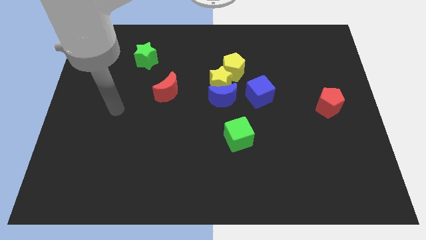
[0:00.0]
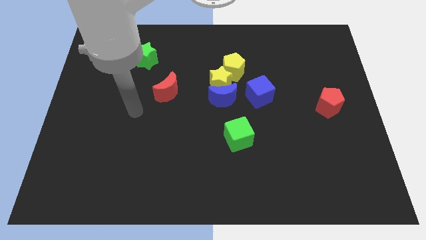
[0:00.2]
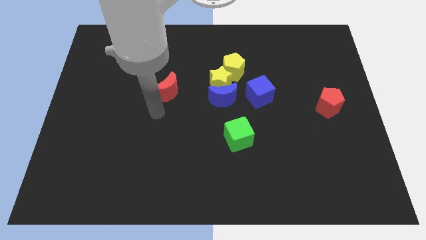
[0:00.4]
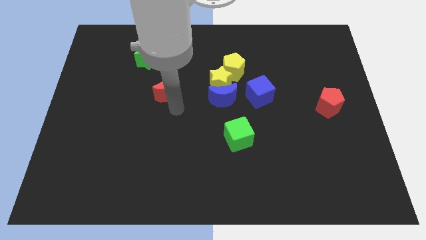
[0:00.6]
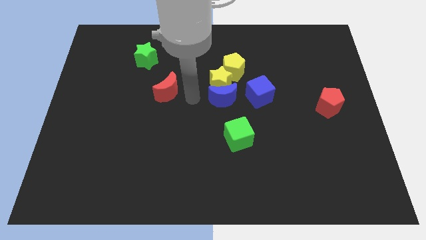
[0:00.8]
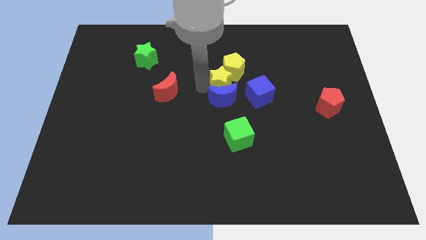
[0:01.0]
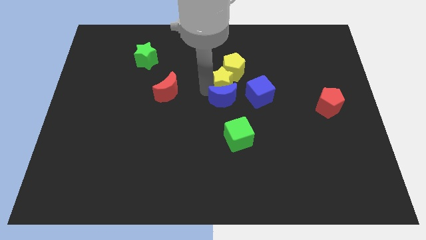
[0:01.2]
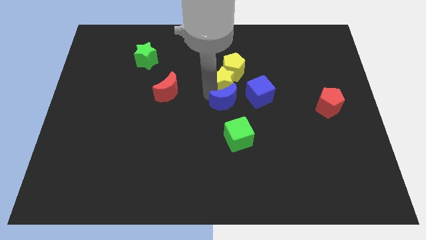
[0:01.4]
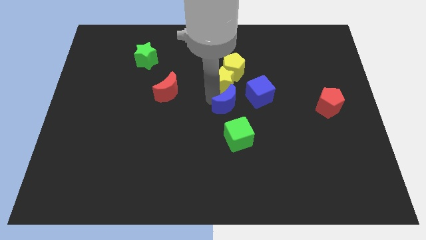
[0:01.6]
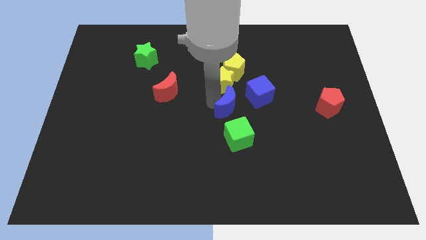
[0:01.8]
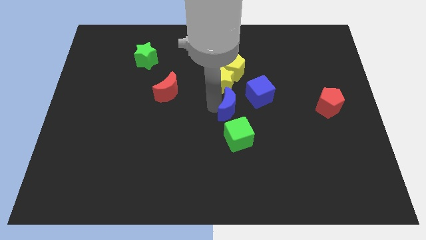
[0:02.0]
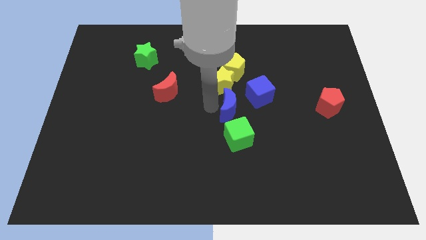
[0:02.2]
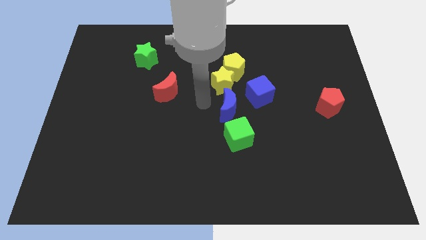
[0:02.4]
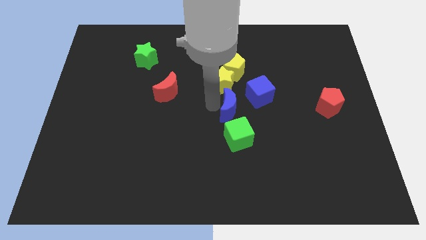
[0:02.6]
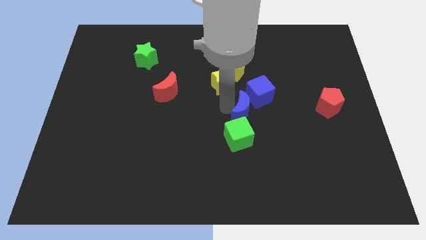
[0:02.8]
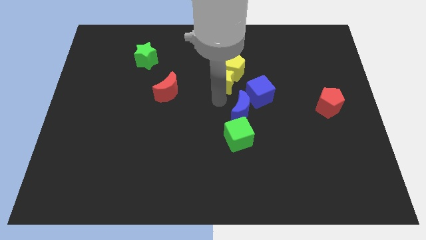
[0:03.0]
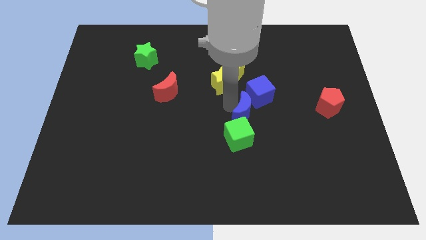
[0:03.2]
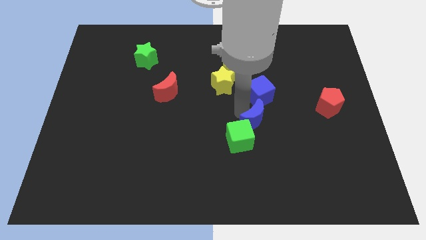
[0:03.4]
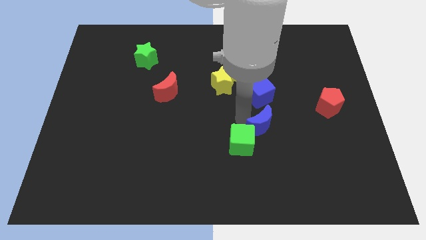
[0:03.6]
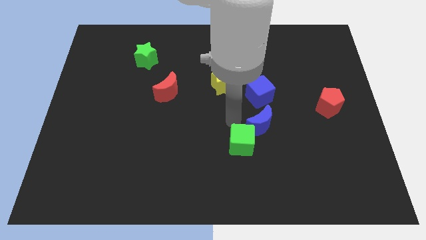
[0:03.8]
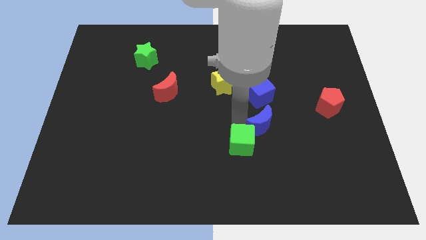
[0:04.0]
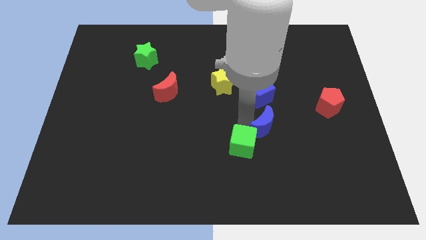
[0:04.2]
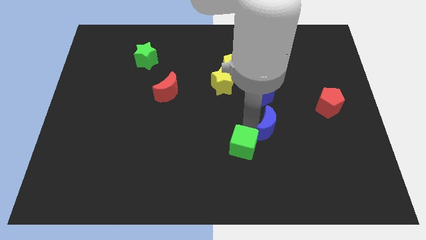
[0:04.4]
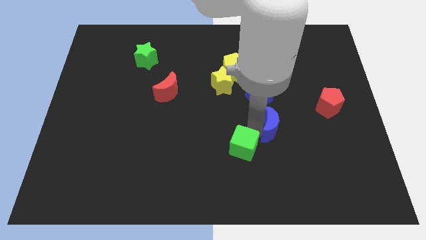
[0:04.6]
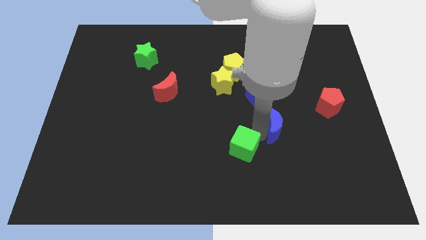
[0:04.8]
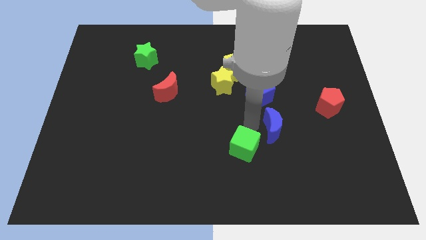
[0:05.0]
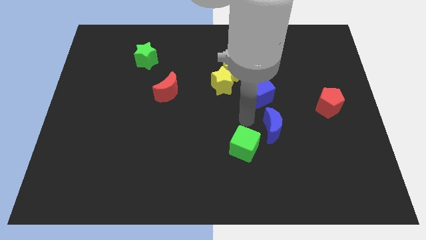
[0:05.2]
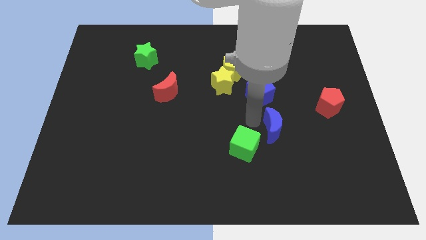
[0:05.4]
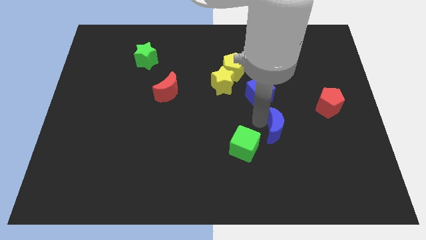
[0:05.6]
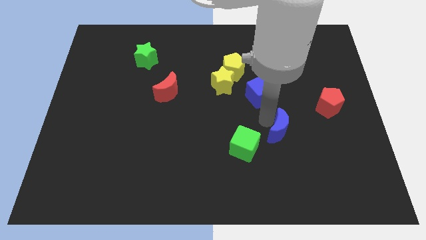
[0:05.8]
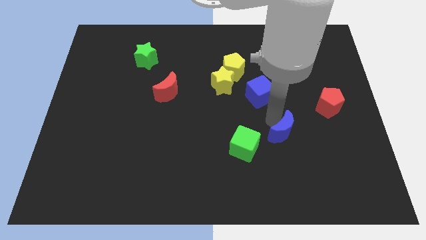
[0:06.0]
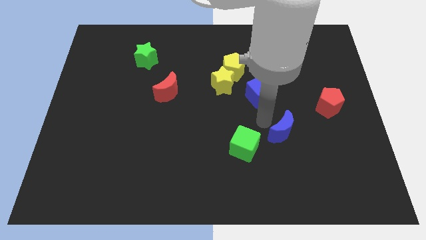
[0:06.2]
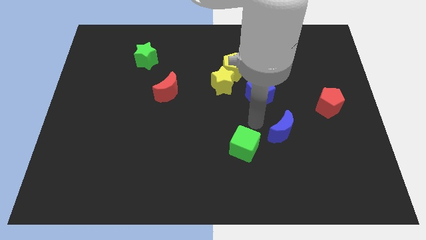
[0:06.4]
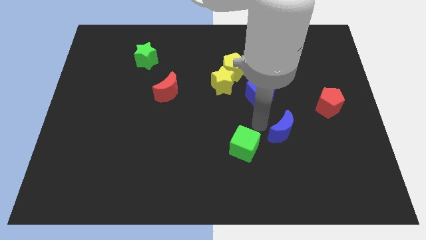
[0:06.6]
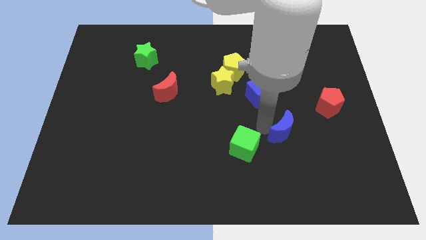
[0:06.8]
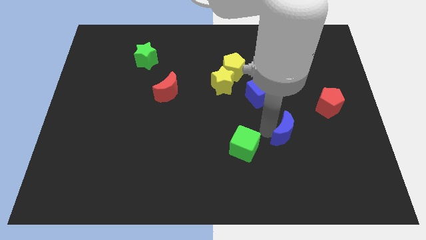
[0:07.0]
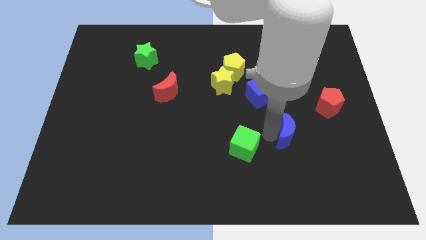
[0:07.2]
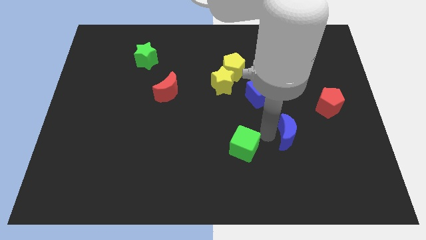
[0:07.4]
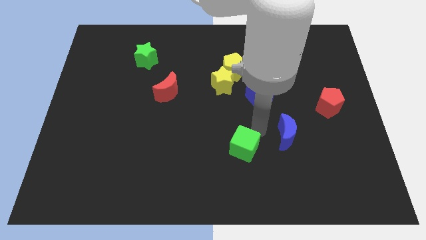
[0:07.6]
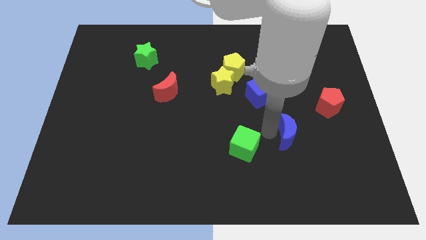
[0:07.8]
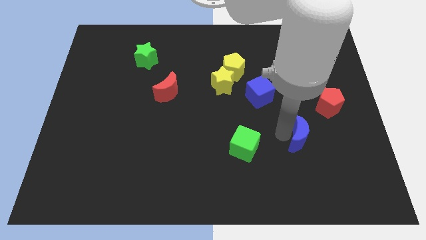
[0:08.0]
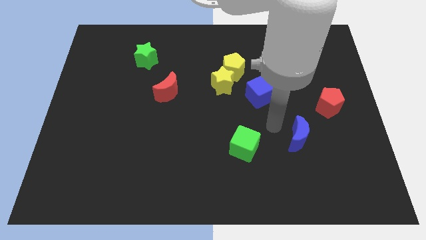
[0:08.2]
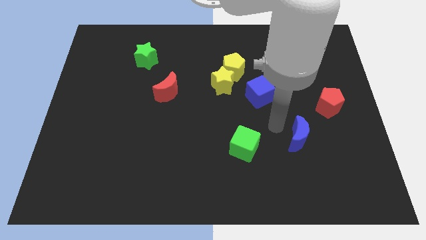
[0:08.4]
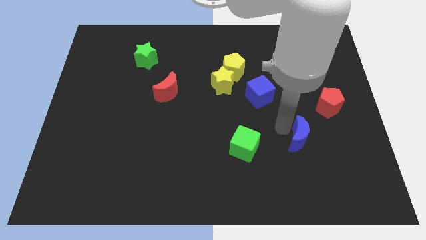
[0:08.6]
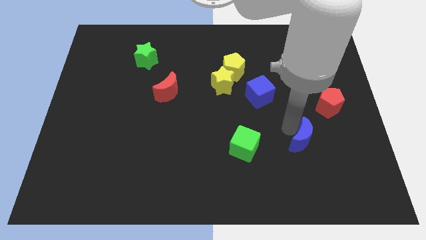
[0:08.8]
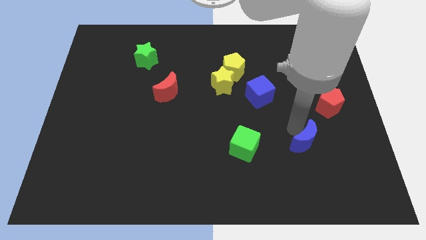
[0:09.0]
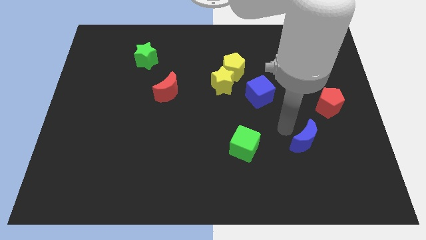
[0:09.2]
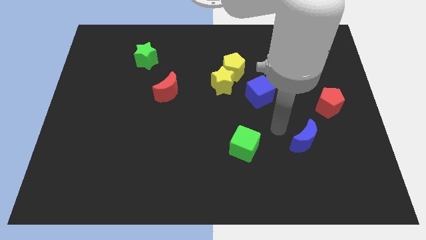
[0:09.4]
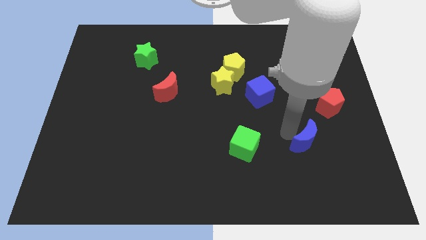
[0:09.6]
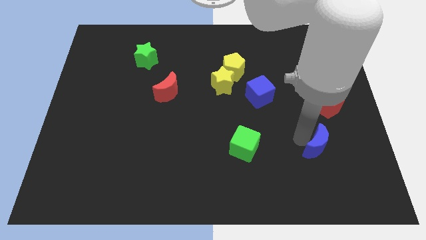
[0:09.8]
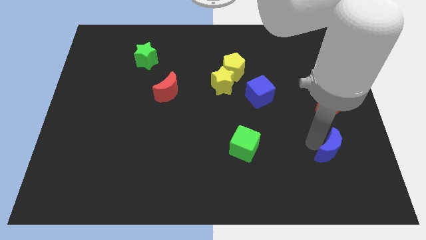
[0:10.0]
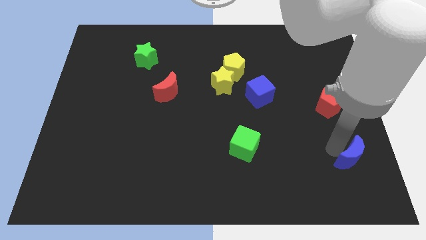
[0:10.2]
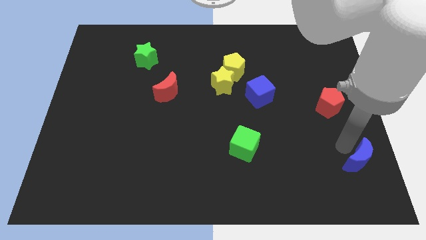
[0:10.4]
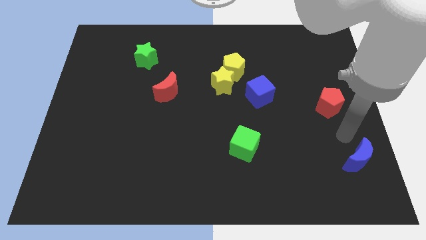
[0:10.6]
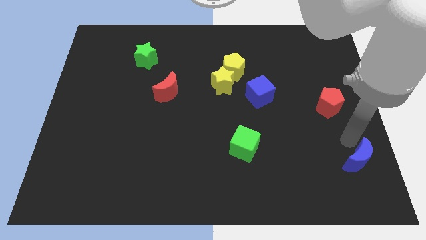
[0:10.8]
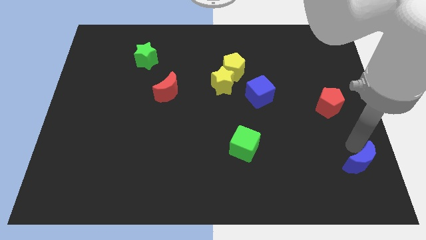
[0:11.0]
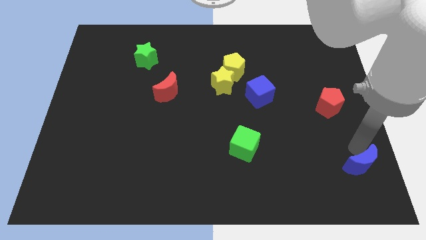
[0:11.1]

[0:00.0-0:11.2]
put the blue moon to the bottom right of the board

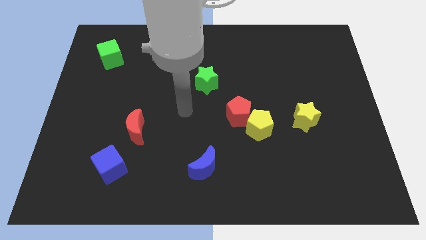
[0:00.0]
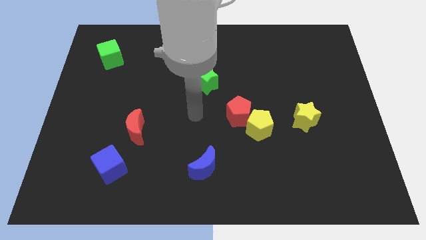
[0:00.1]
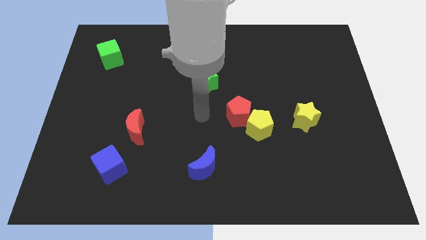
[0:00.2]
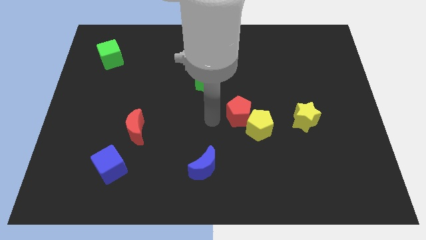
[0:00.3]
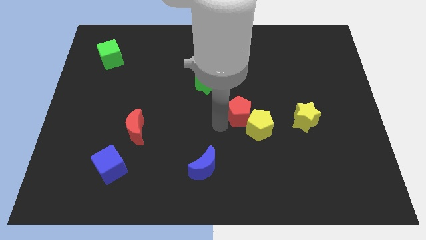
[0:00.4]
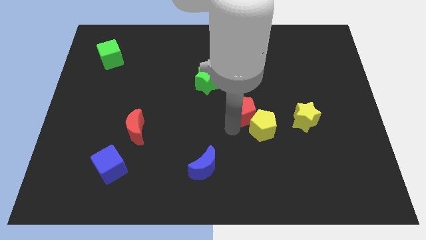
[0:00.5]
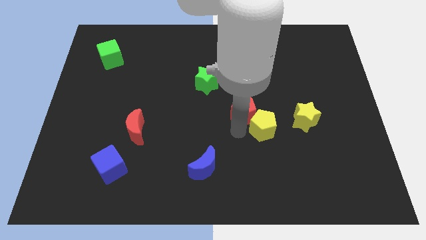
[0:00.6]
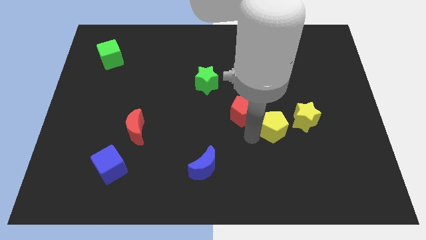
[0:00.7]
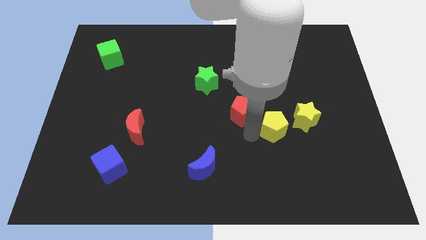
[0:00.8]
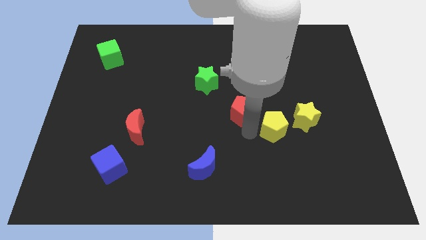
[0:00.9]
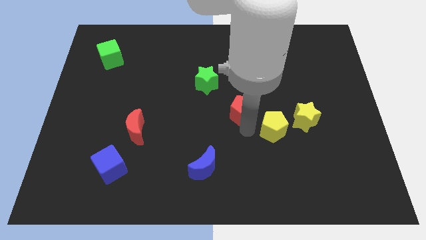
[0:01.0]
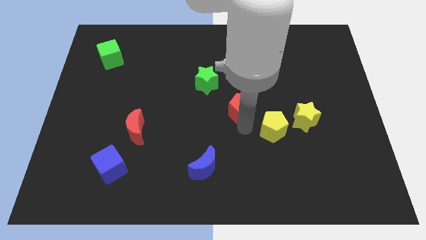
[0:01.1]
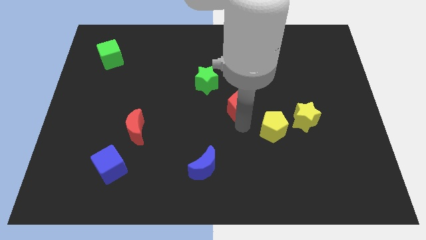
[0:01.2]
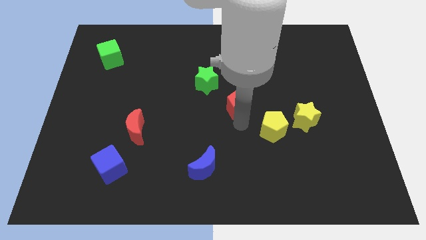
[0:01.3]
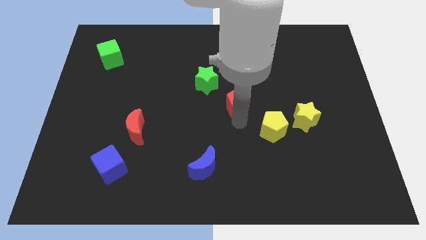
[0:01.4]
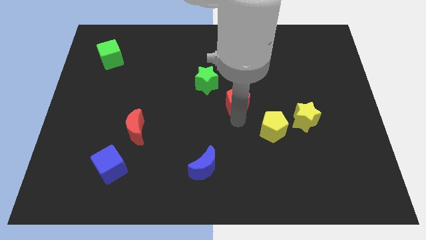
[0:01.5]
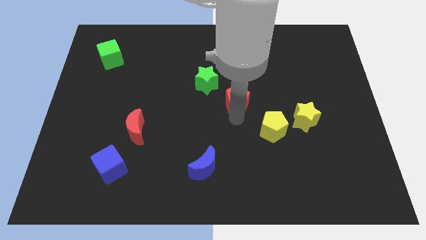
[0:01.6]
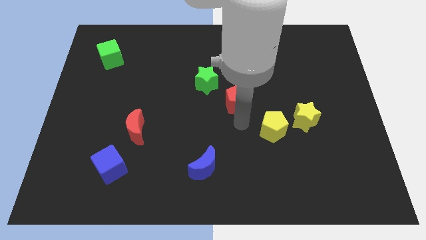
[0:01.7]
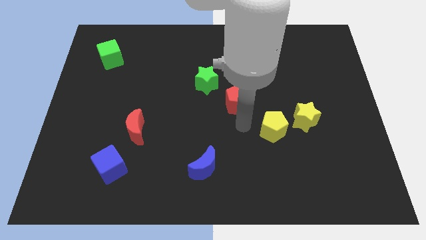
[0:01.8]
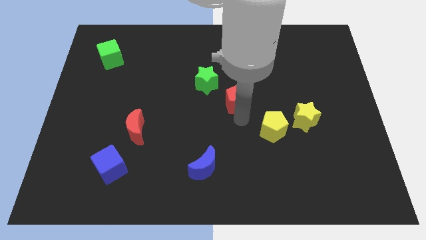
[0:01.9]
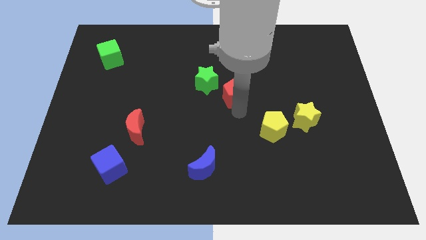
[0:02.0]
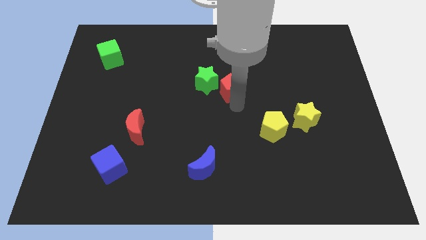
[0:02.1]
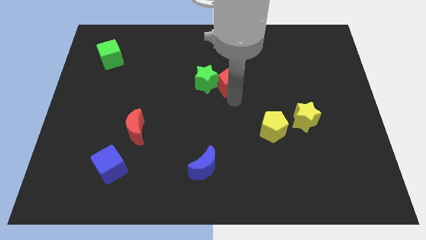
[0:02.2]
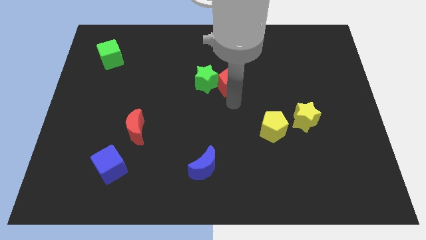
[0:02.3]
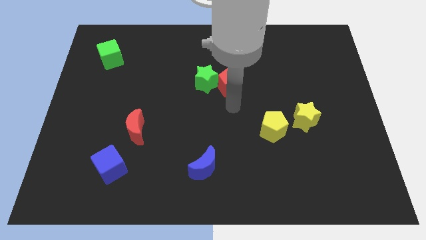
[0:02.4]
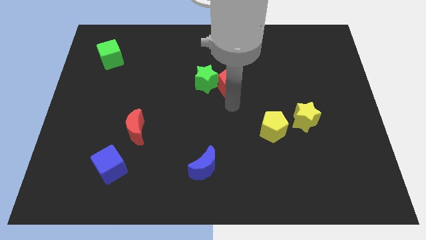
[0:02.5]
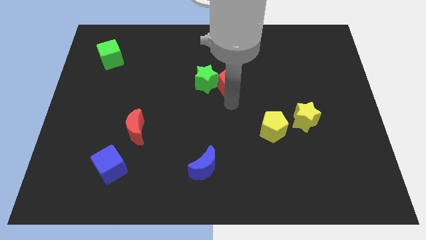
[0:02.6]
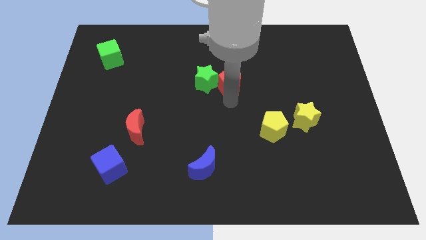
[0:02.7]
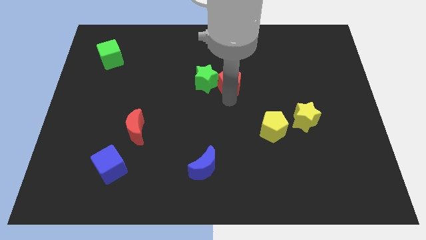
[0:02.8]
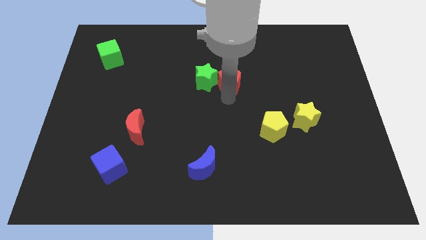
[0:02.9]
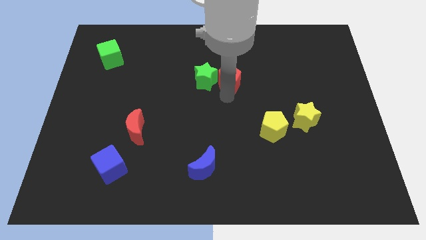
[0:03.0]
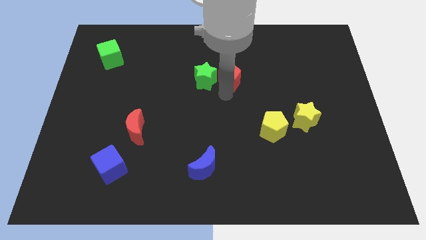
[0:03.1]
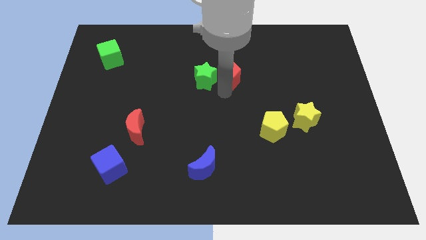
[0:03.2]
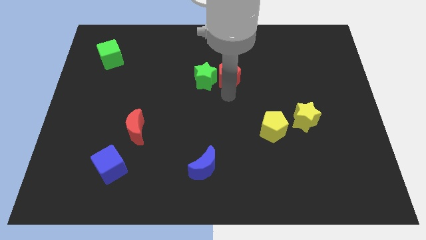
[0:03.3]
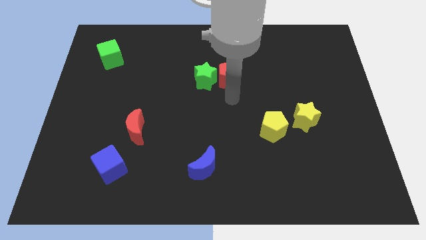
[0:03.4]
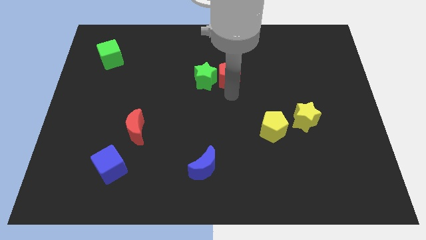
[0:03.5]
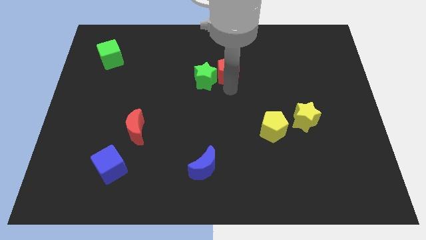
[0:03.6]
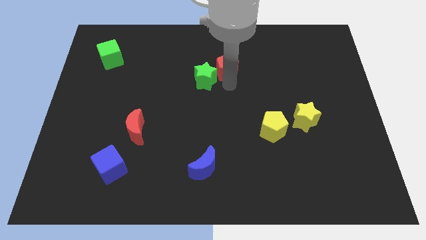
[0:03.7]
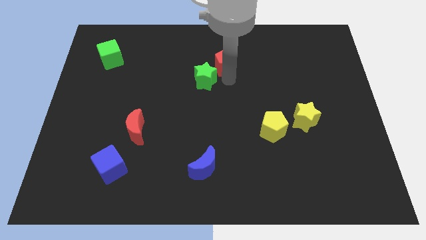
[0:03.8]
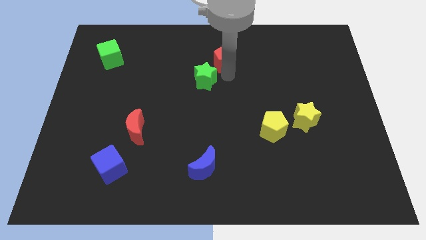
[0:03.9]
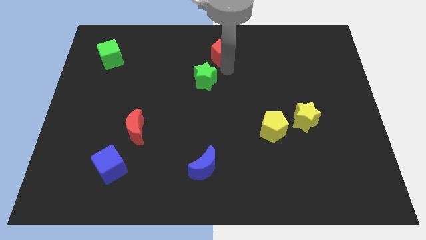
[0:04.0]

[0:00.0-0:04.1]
put the red pentagon to the towards your base
